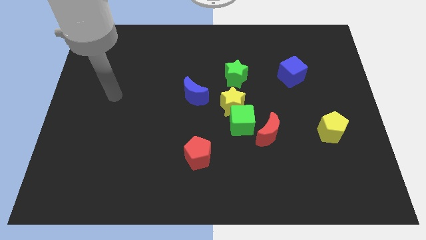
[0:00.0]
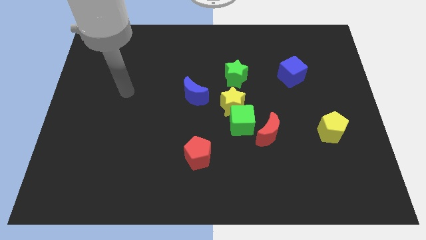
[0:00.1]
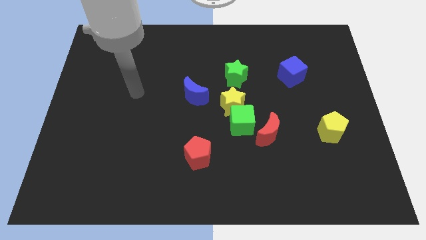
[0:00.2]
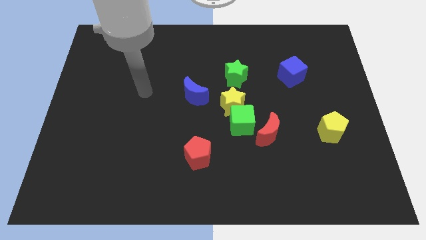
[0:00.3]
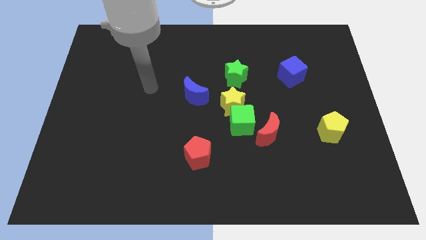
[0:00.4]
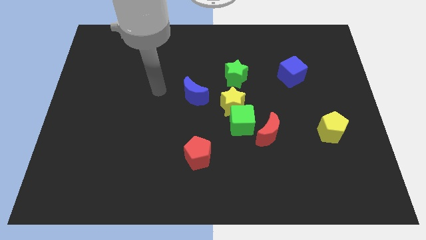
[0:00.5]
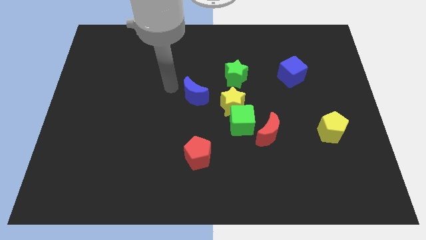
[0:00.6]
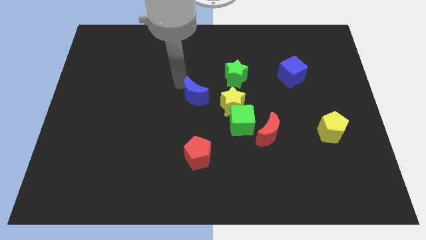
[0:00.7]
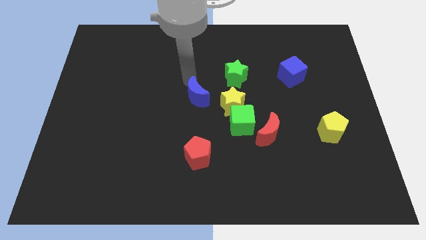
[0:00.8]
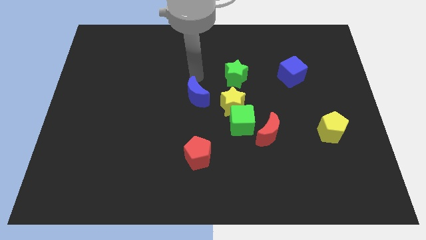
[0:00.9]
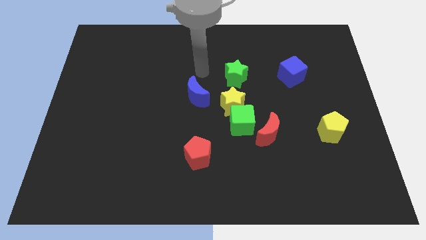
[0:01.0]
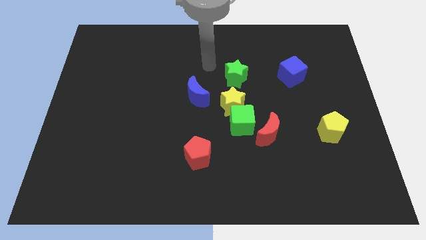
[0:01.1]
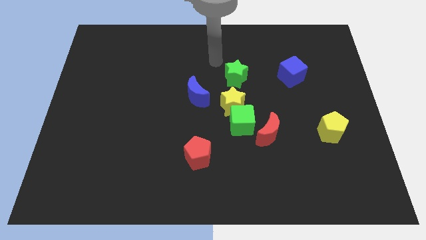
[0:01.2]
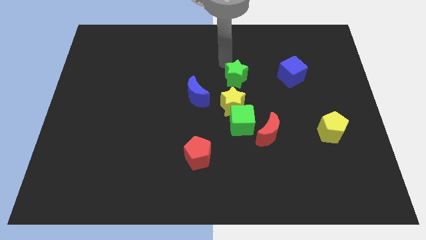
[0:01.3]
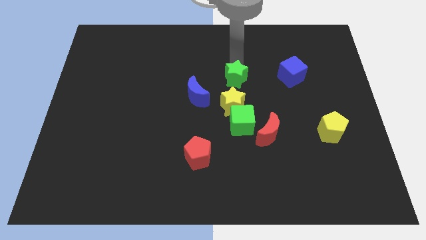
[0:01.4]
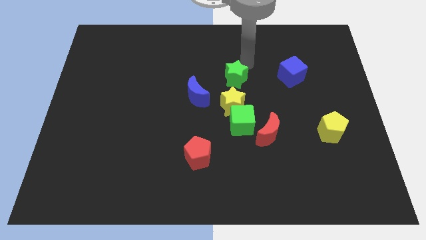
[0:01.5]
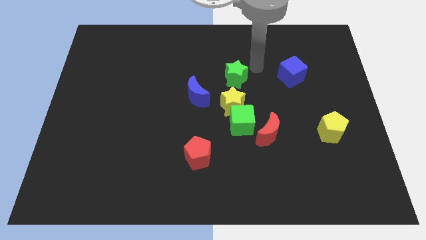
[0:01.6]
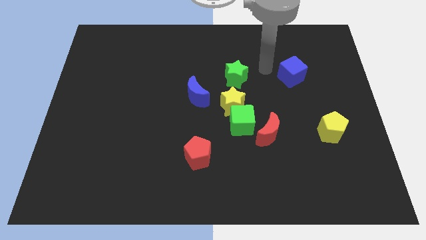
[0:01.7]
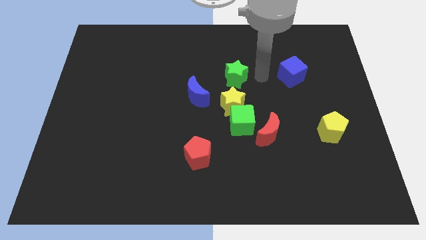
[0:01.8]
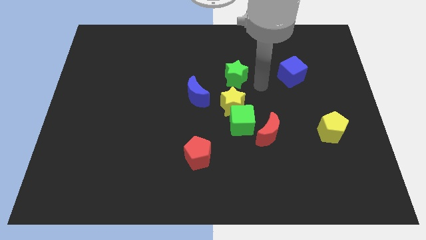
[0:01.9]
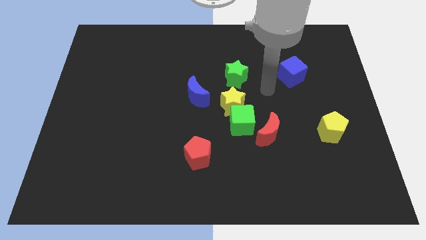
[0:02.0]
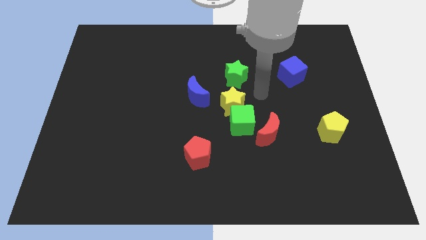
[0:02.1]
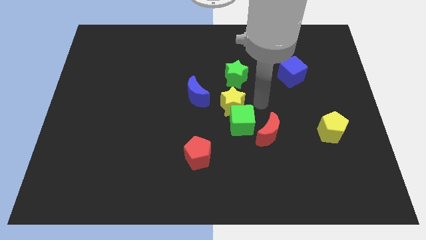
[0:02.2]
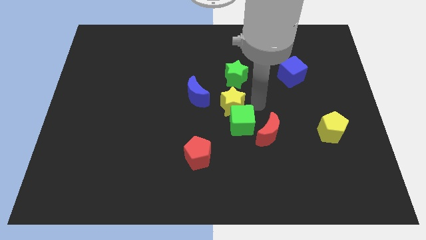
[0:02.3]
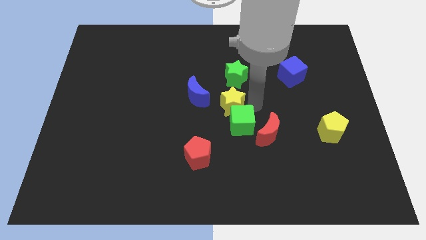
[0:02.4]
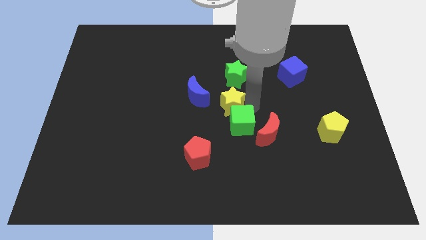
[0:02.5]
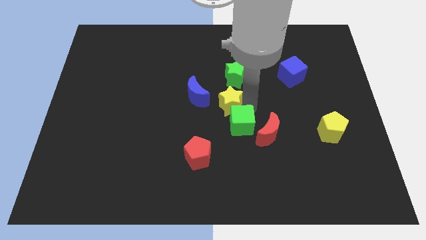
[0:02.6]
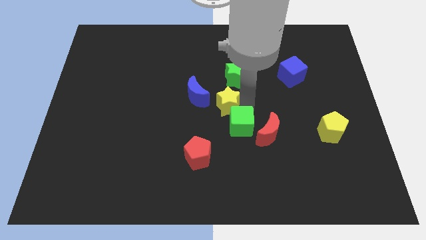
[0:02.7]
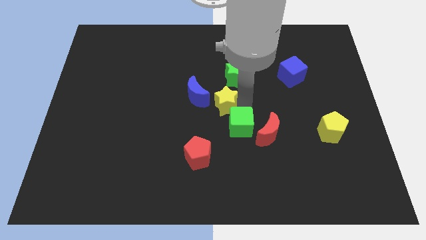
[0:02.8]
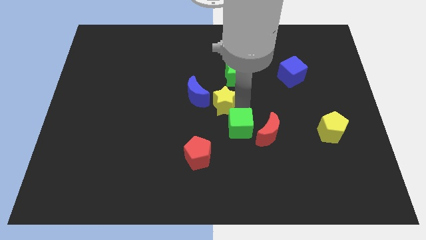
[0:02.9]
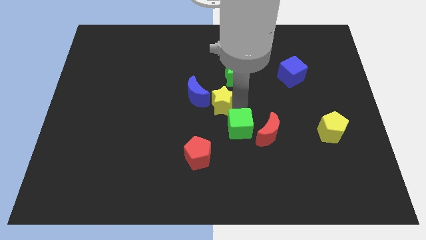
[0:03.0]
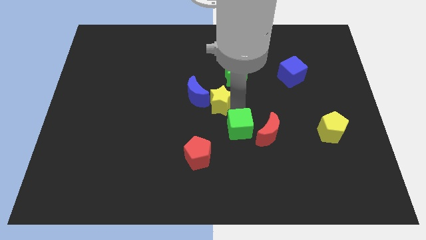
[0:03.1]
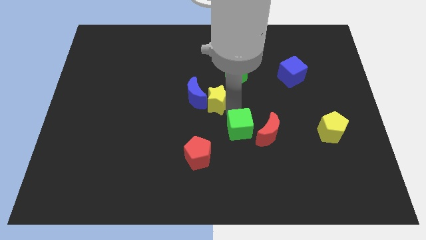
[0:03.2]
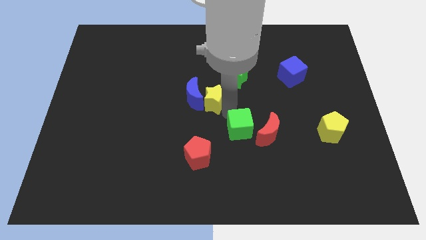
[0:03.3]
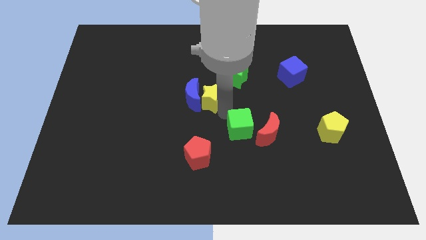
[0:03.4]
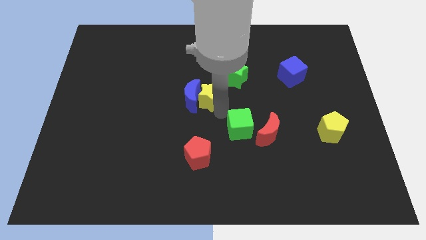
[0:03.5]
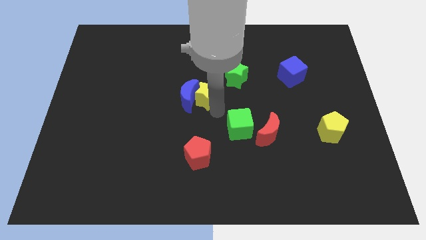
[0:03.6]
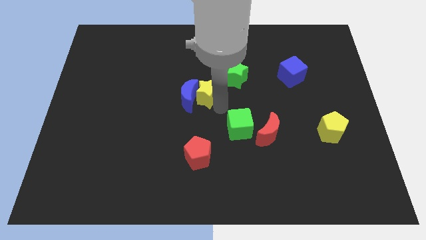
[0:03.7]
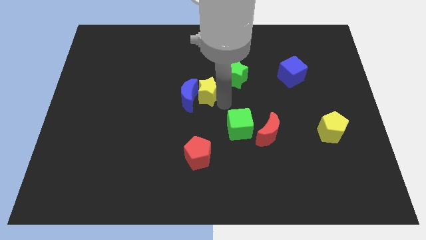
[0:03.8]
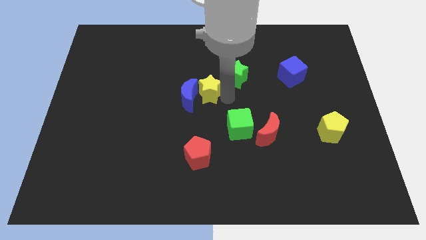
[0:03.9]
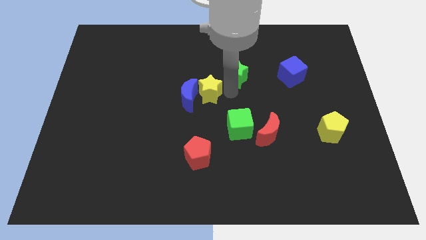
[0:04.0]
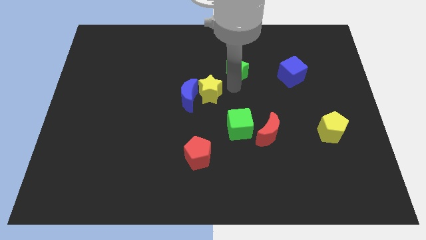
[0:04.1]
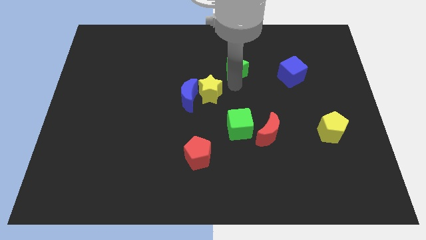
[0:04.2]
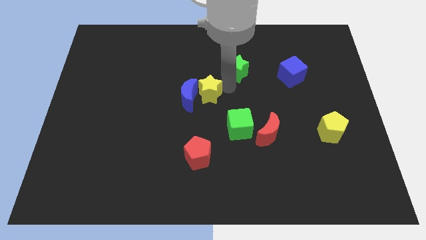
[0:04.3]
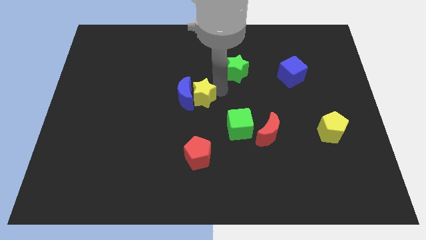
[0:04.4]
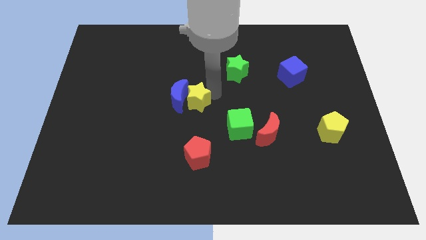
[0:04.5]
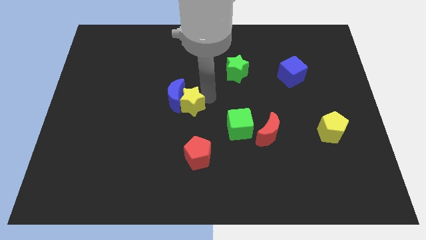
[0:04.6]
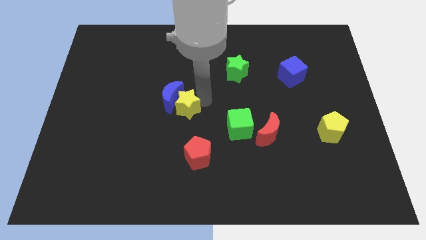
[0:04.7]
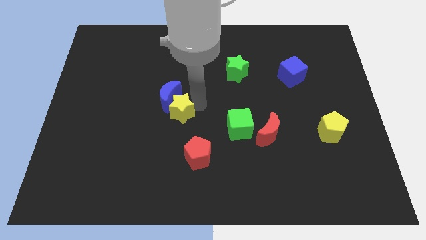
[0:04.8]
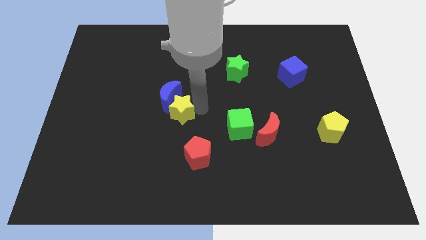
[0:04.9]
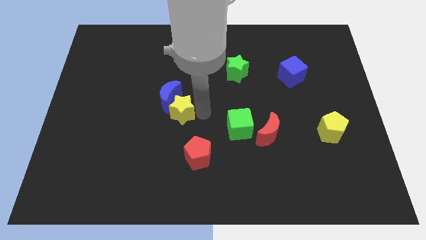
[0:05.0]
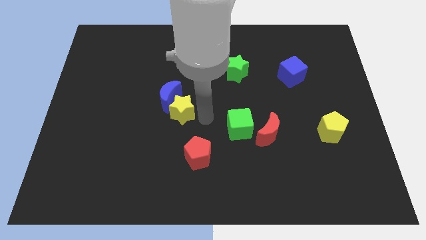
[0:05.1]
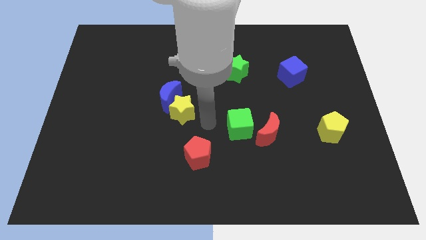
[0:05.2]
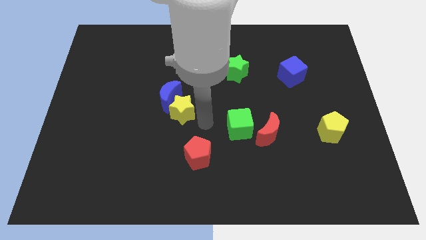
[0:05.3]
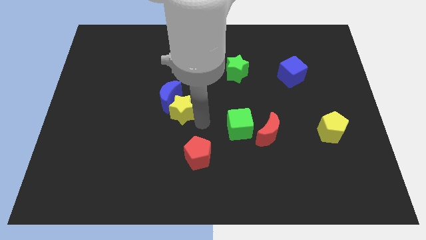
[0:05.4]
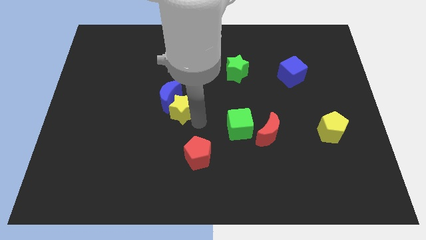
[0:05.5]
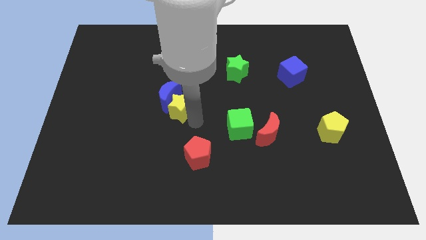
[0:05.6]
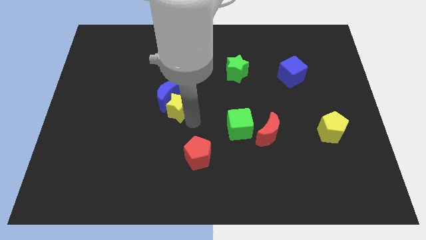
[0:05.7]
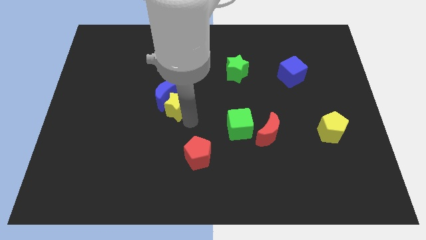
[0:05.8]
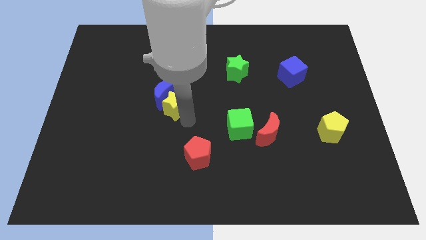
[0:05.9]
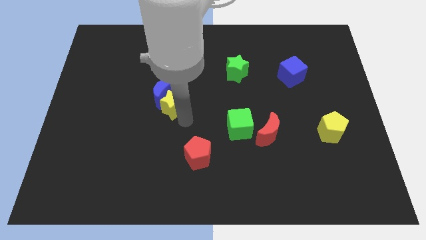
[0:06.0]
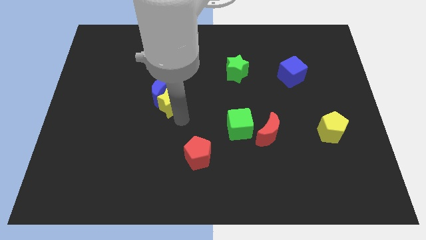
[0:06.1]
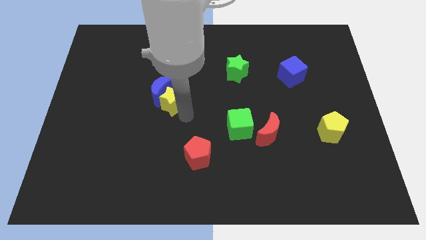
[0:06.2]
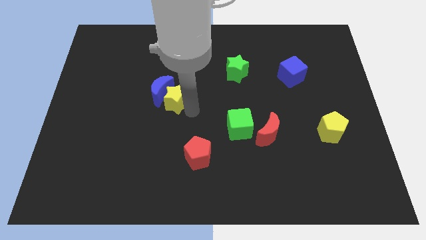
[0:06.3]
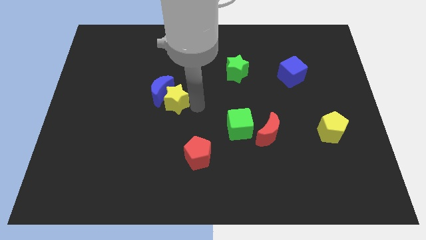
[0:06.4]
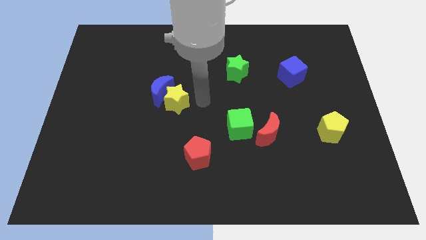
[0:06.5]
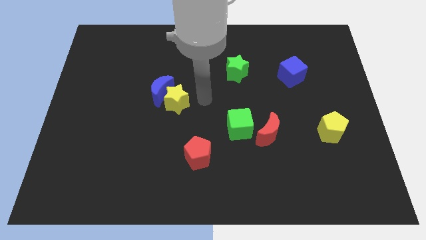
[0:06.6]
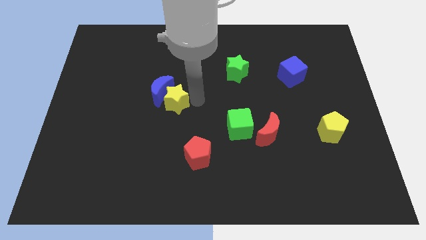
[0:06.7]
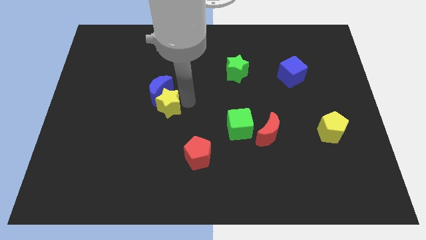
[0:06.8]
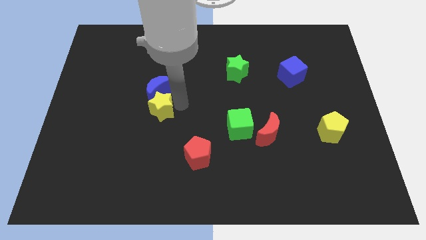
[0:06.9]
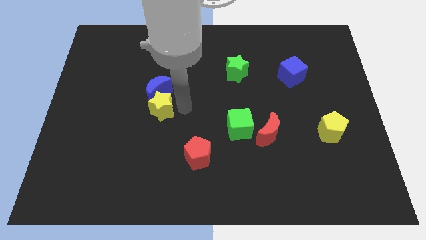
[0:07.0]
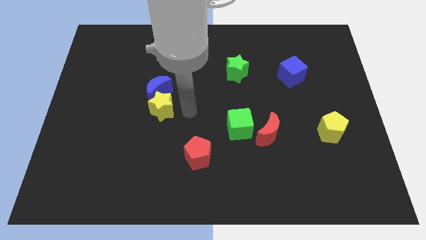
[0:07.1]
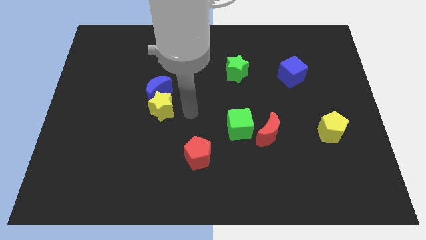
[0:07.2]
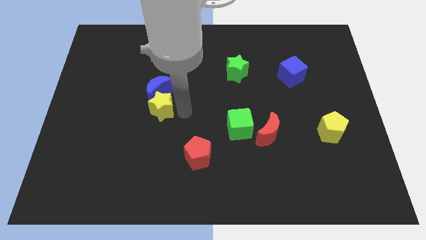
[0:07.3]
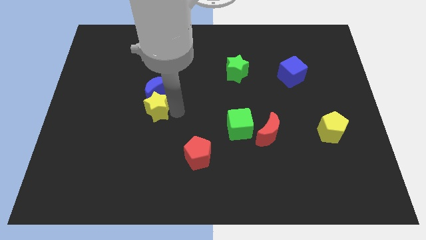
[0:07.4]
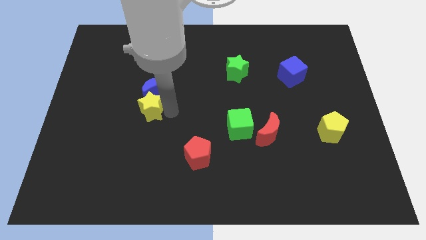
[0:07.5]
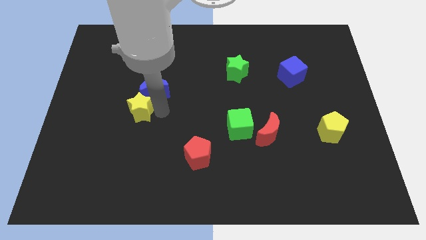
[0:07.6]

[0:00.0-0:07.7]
push the yellow star to the left

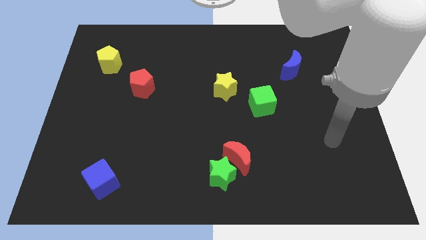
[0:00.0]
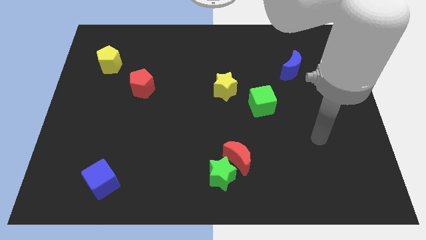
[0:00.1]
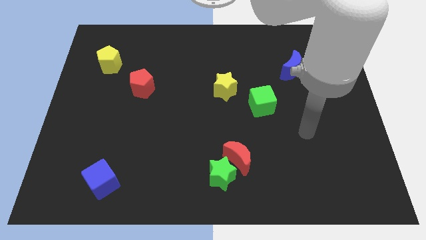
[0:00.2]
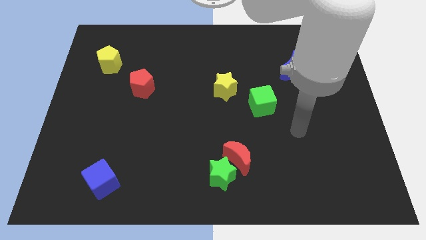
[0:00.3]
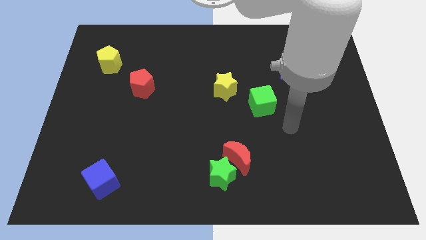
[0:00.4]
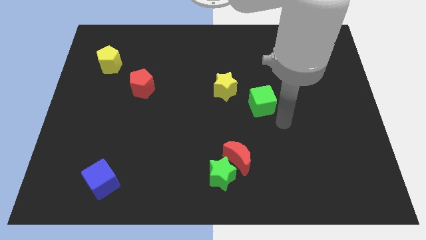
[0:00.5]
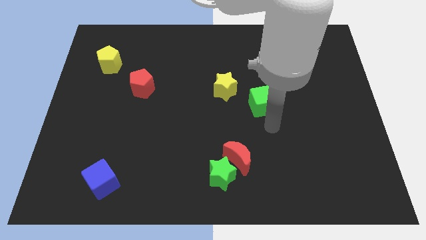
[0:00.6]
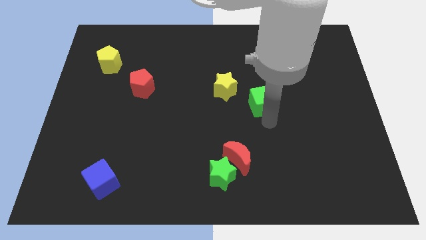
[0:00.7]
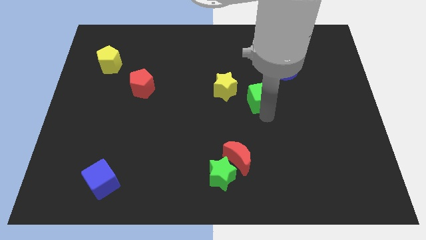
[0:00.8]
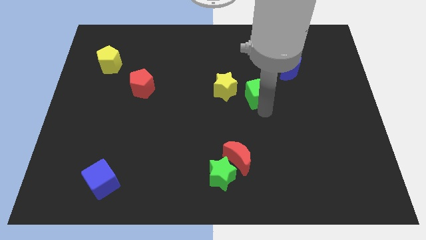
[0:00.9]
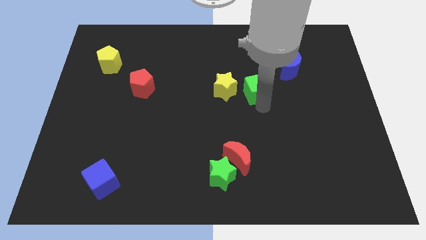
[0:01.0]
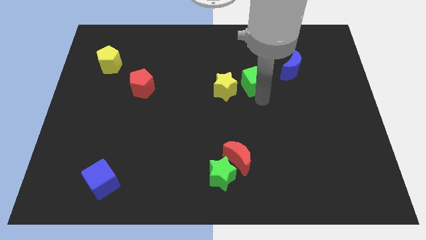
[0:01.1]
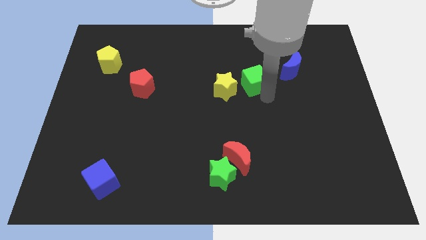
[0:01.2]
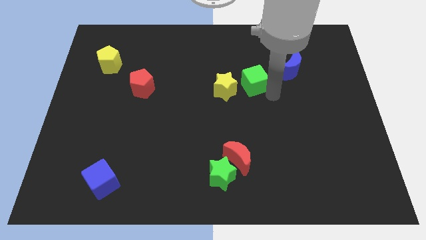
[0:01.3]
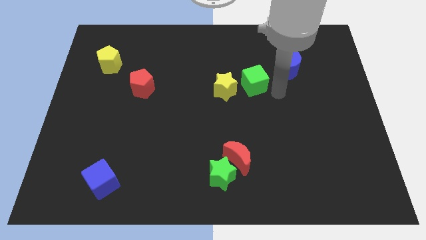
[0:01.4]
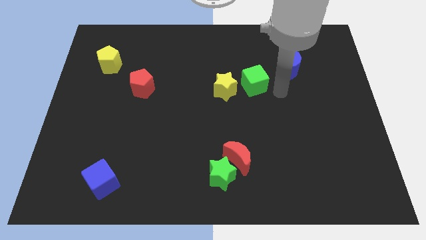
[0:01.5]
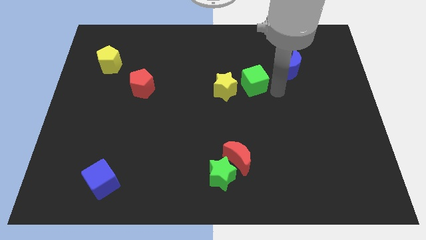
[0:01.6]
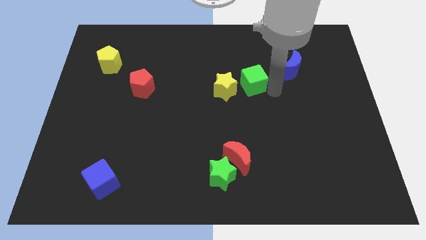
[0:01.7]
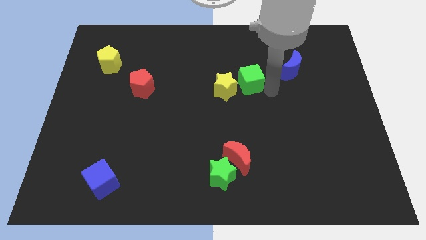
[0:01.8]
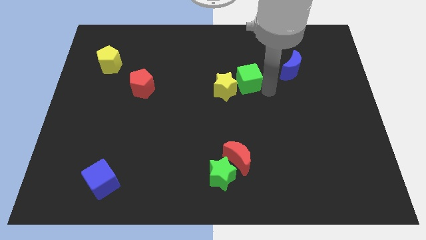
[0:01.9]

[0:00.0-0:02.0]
move the green cube diagonally upwards and left a little bit
